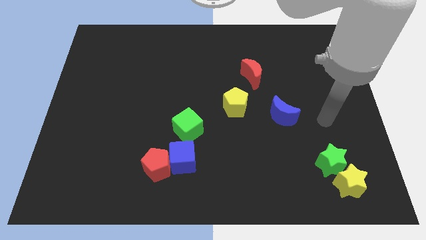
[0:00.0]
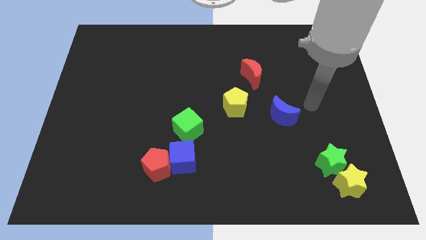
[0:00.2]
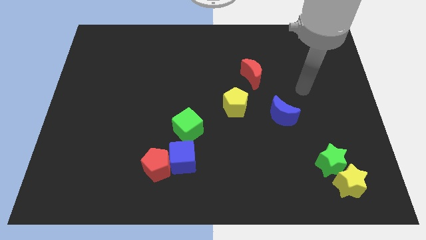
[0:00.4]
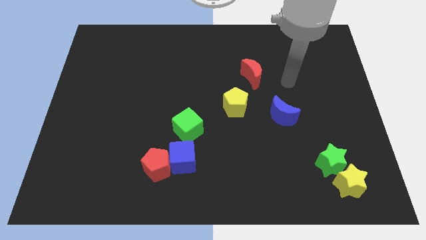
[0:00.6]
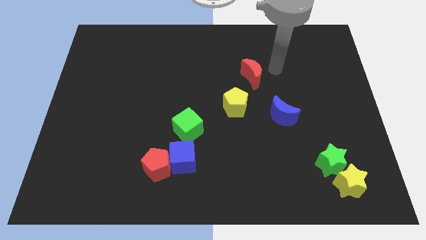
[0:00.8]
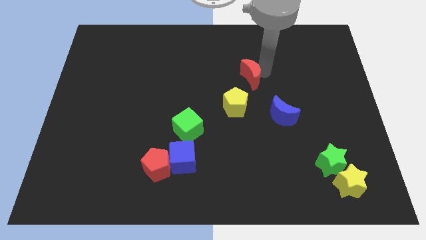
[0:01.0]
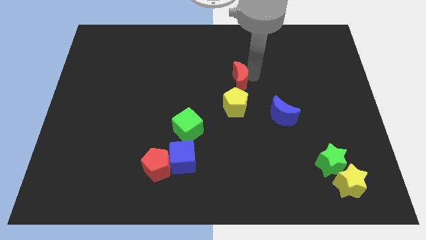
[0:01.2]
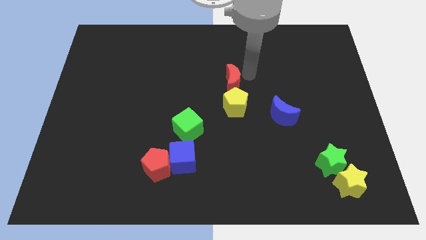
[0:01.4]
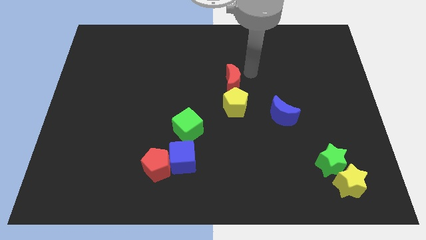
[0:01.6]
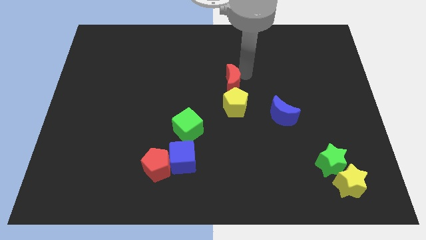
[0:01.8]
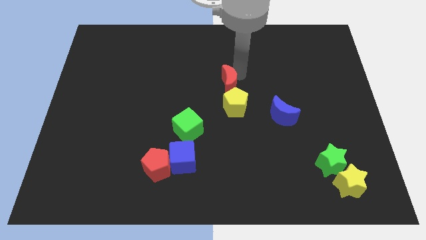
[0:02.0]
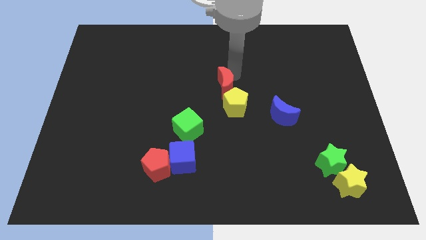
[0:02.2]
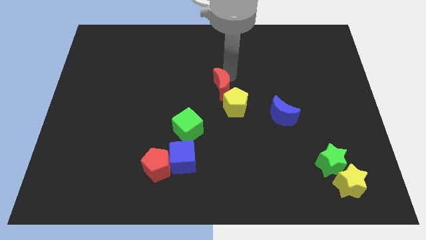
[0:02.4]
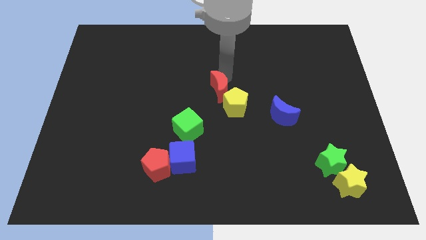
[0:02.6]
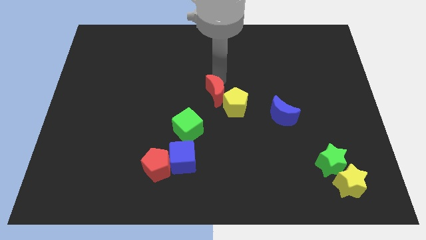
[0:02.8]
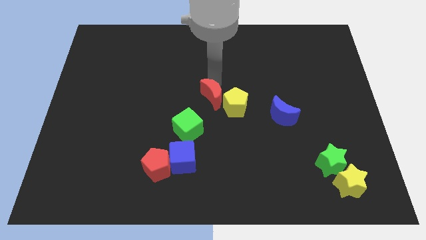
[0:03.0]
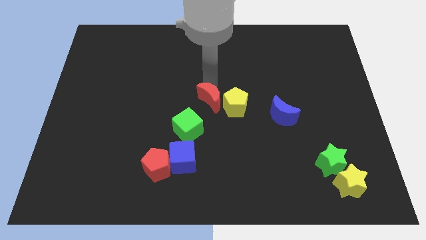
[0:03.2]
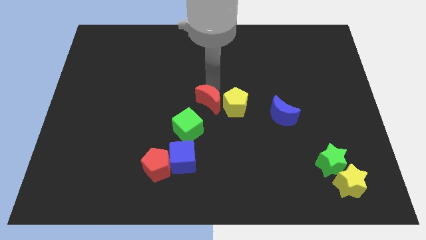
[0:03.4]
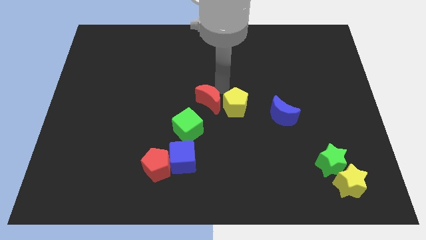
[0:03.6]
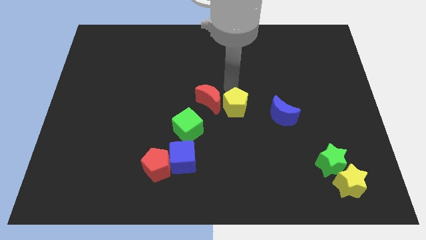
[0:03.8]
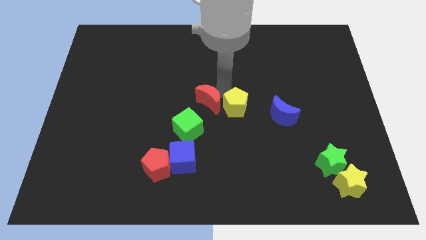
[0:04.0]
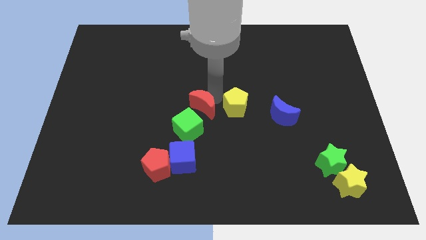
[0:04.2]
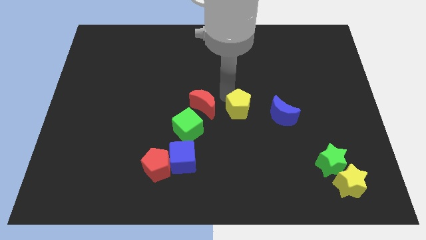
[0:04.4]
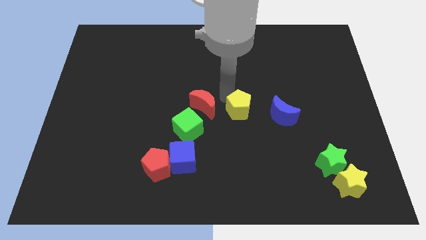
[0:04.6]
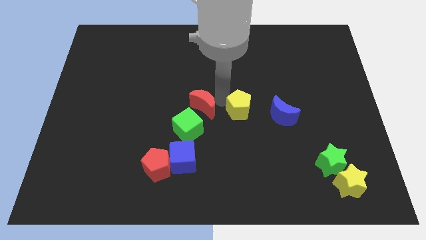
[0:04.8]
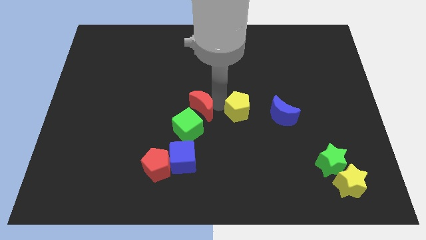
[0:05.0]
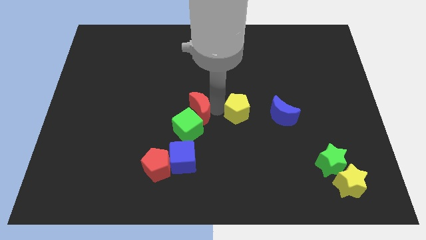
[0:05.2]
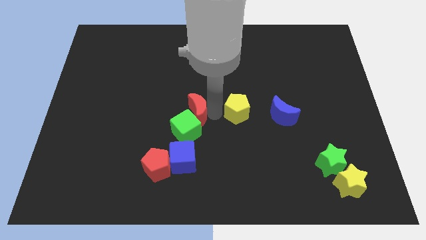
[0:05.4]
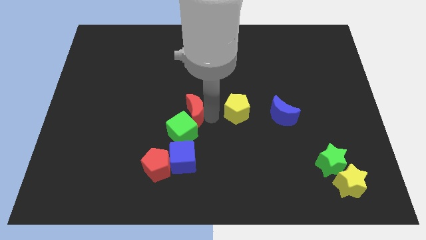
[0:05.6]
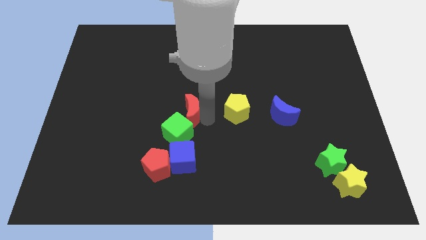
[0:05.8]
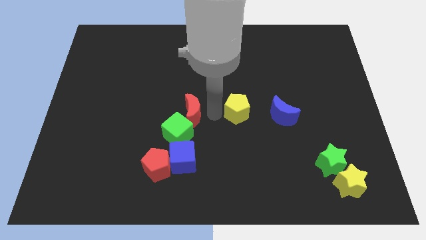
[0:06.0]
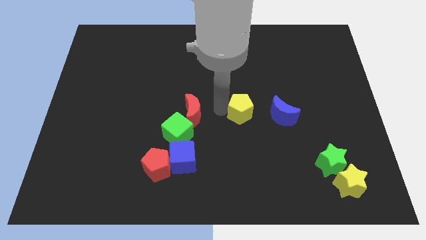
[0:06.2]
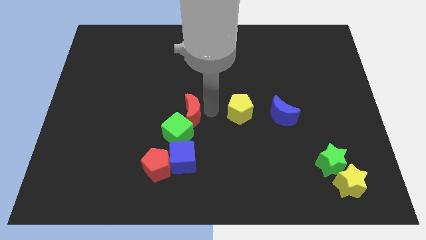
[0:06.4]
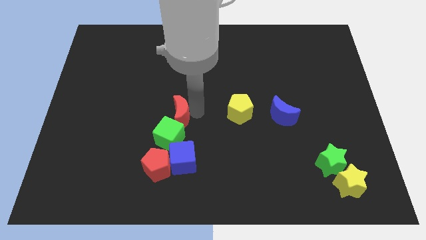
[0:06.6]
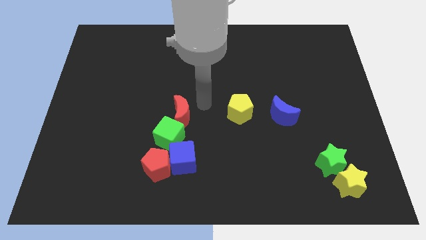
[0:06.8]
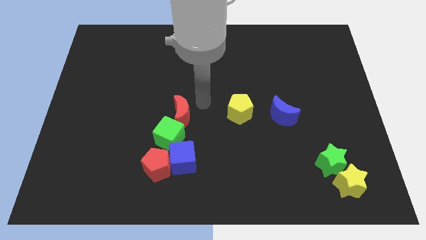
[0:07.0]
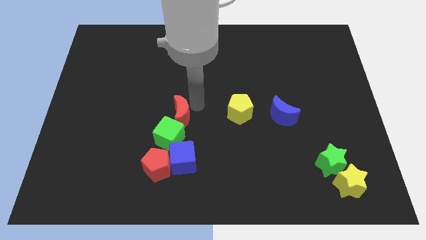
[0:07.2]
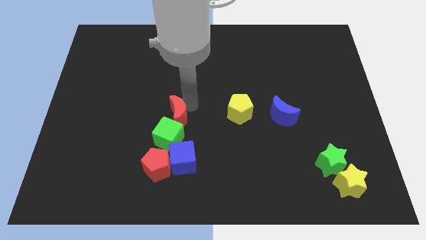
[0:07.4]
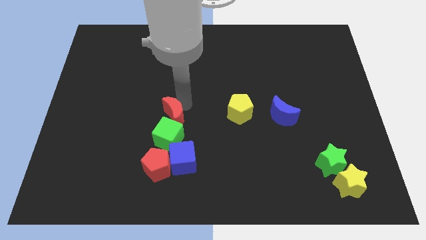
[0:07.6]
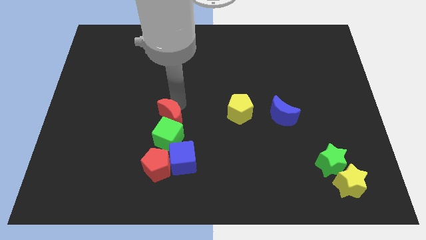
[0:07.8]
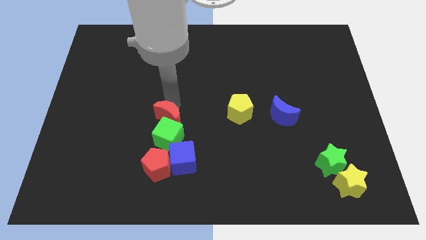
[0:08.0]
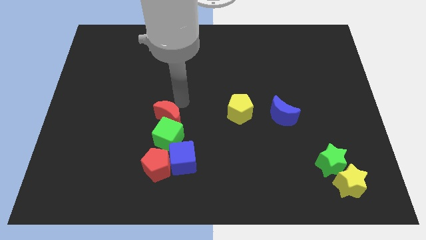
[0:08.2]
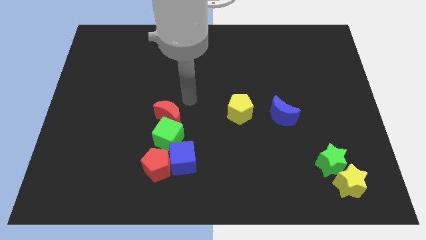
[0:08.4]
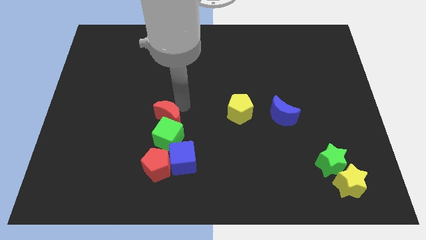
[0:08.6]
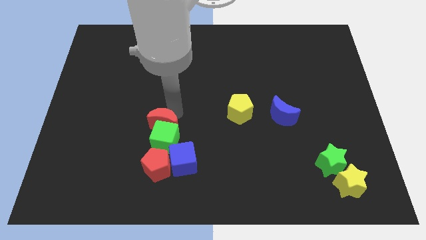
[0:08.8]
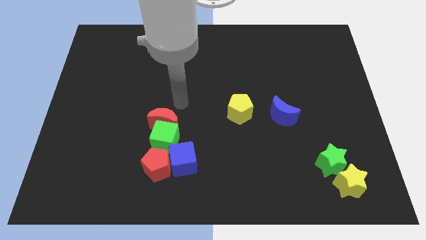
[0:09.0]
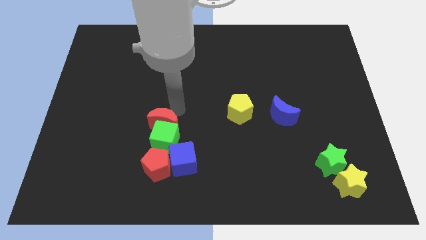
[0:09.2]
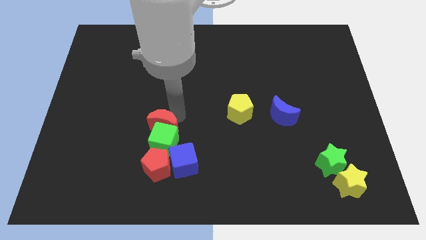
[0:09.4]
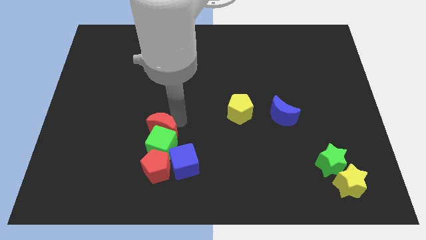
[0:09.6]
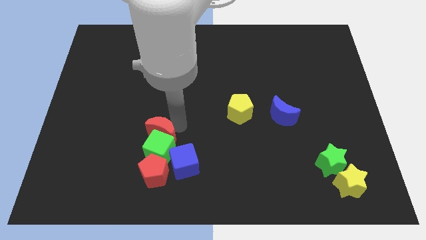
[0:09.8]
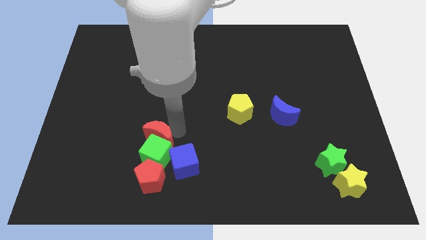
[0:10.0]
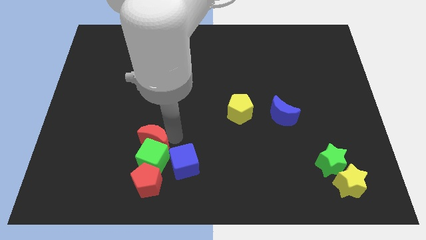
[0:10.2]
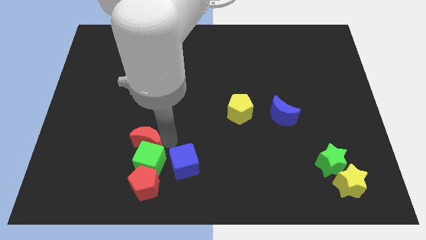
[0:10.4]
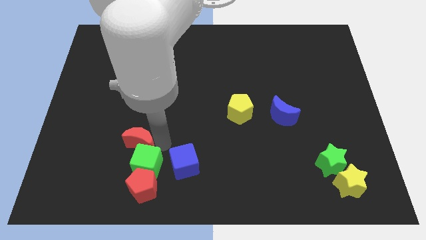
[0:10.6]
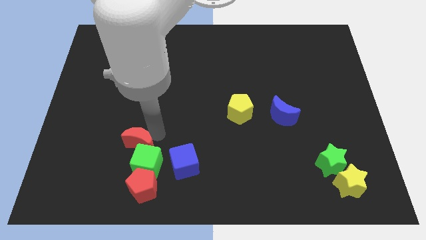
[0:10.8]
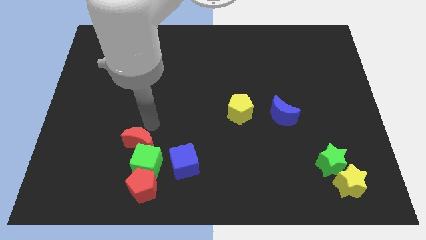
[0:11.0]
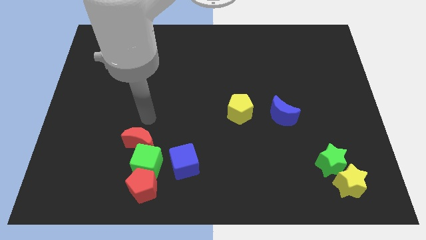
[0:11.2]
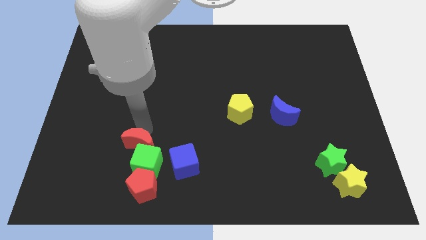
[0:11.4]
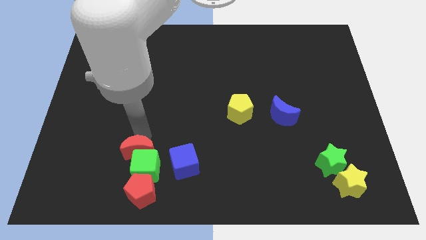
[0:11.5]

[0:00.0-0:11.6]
move the red moon to the left of the blue cube
